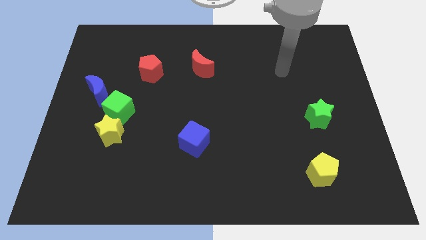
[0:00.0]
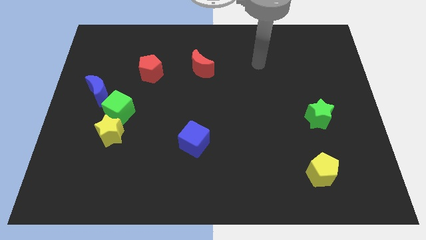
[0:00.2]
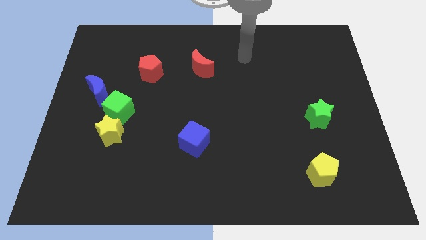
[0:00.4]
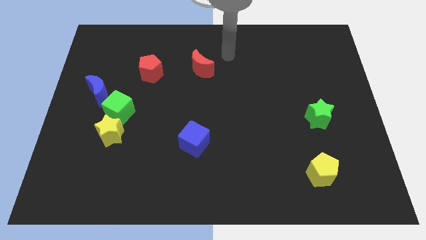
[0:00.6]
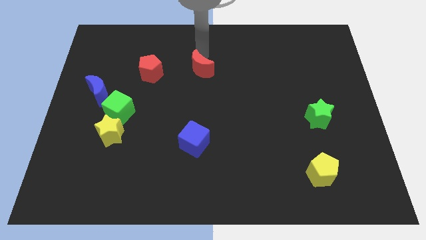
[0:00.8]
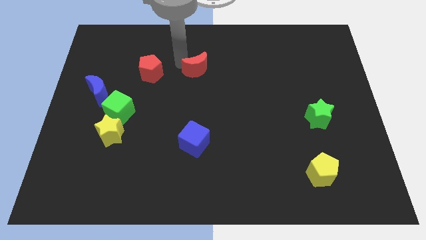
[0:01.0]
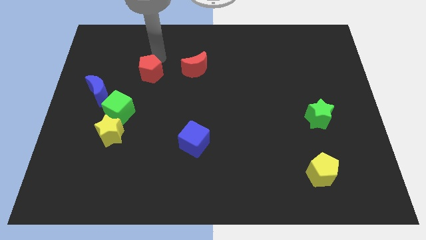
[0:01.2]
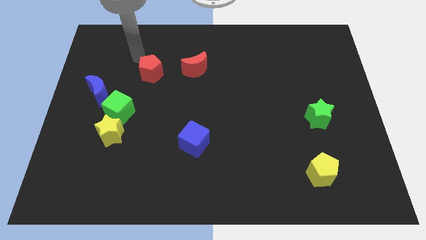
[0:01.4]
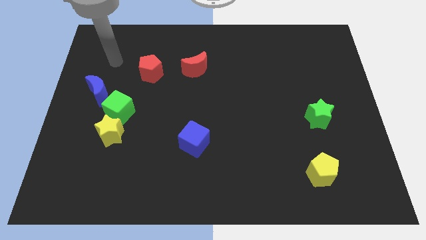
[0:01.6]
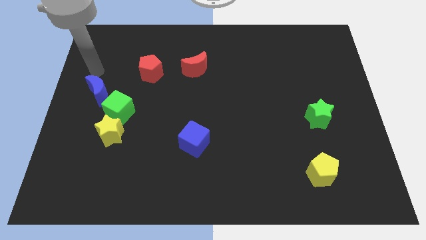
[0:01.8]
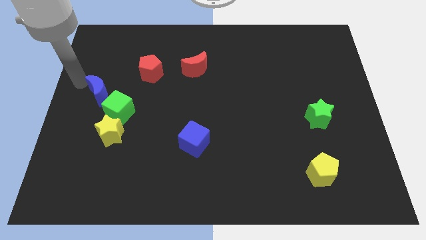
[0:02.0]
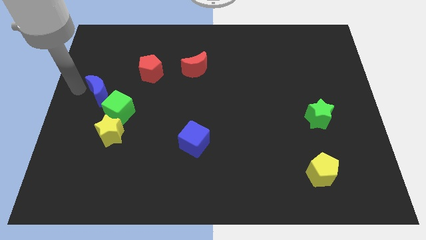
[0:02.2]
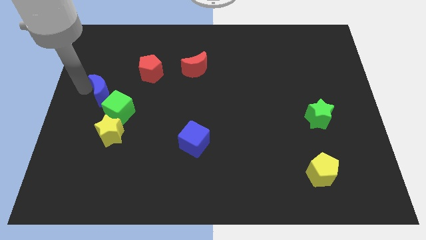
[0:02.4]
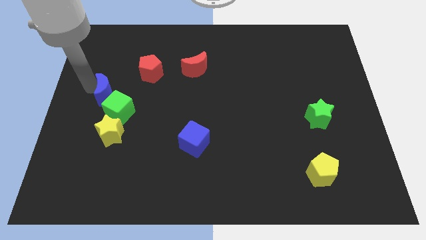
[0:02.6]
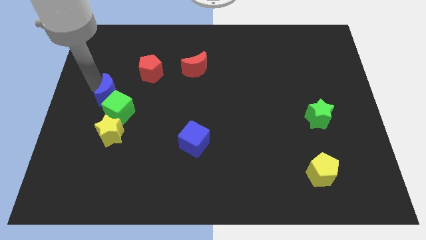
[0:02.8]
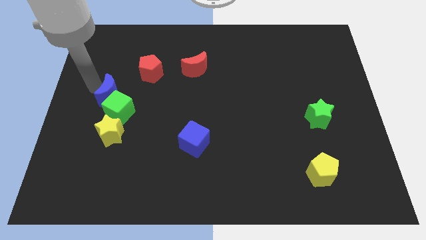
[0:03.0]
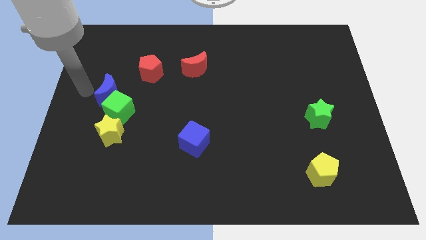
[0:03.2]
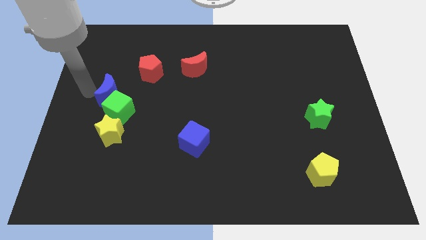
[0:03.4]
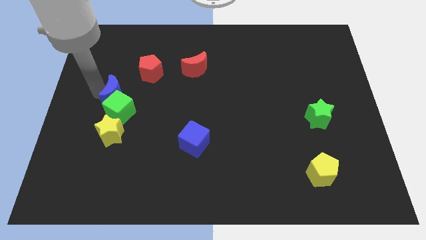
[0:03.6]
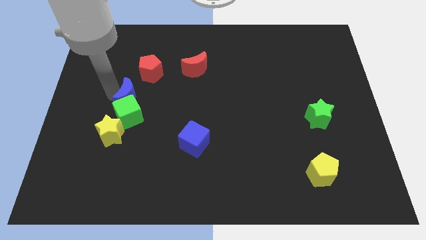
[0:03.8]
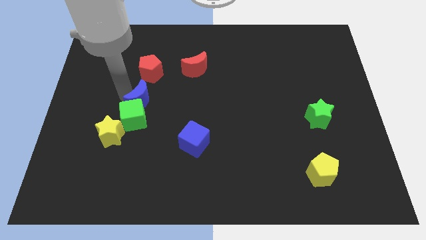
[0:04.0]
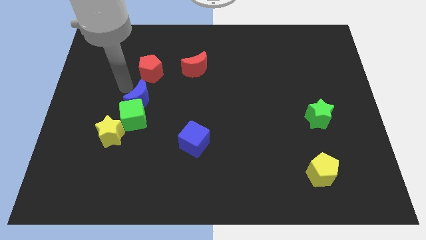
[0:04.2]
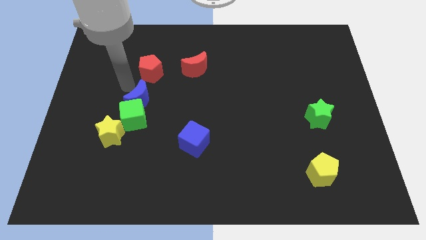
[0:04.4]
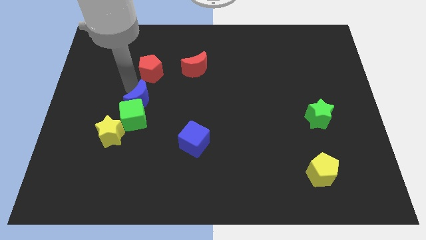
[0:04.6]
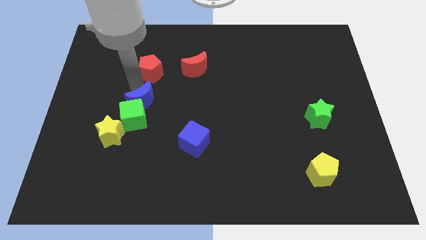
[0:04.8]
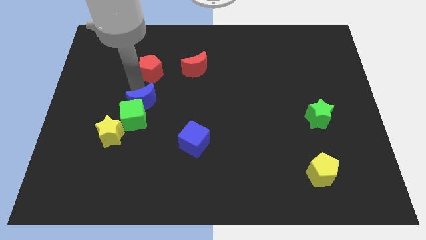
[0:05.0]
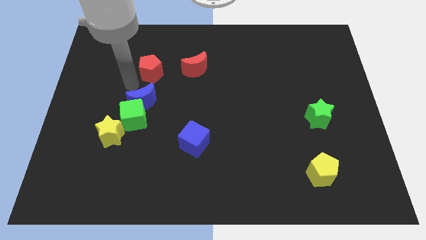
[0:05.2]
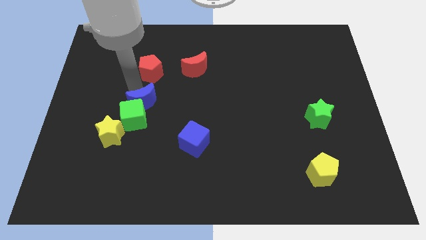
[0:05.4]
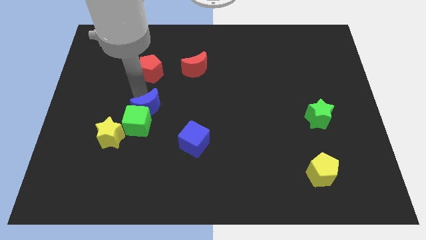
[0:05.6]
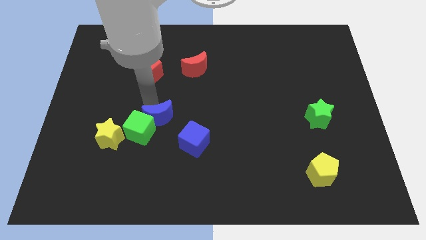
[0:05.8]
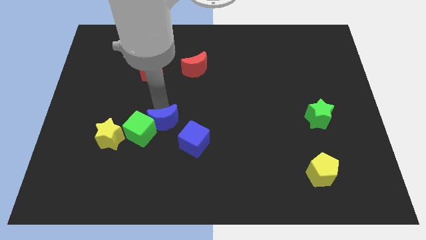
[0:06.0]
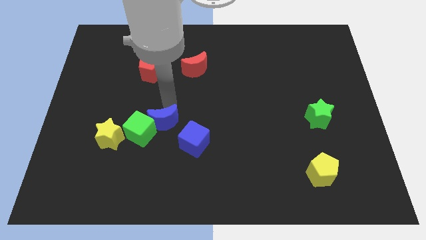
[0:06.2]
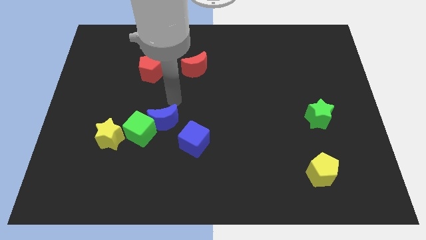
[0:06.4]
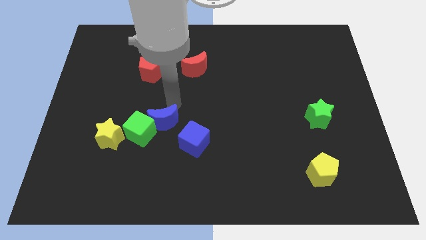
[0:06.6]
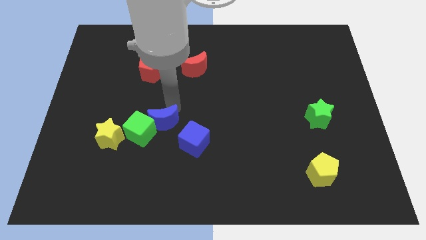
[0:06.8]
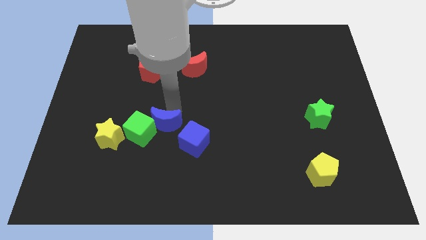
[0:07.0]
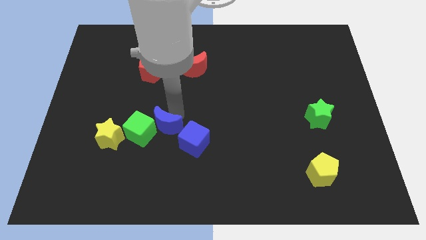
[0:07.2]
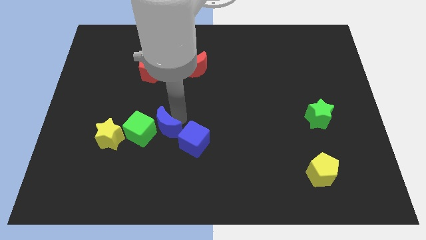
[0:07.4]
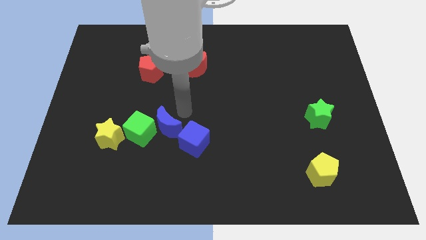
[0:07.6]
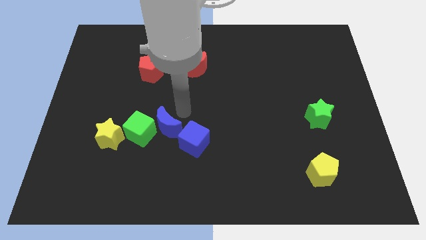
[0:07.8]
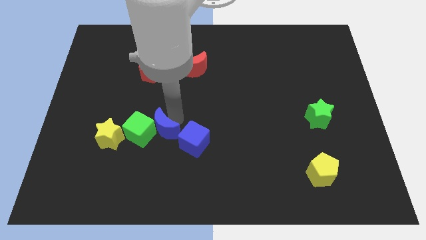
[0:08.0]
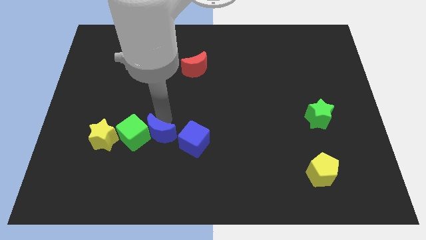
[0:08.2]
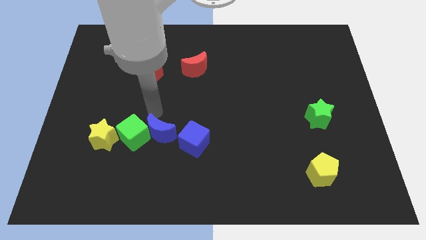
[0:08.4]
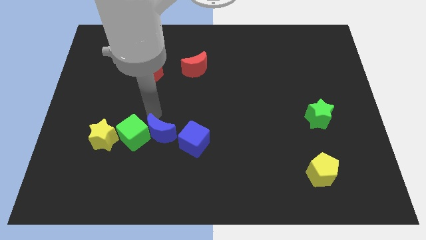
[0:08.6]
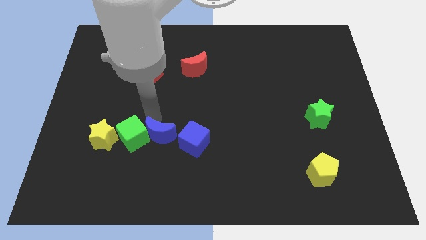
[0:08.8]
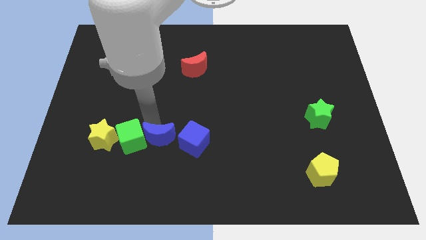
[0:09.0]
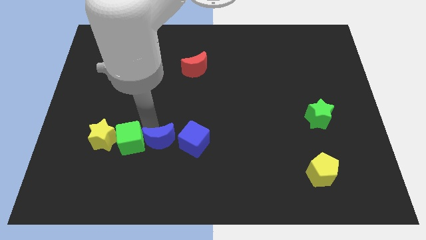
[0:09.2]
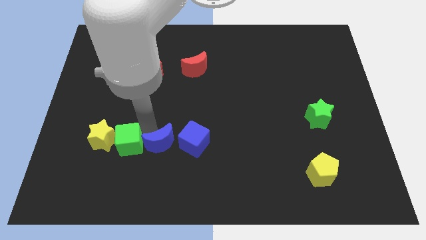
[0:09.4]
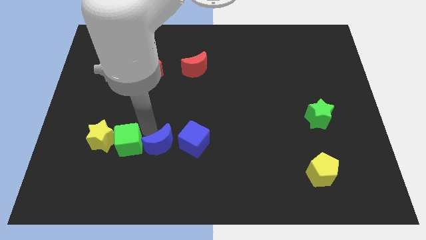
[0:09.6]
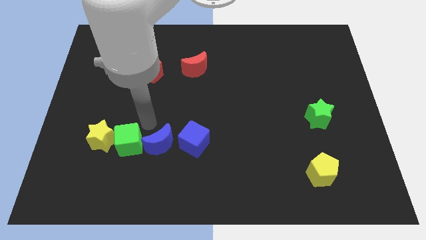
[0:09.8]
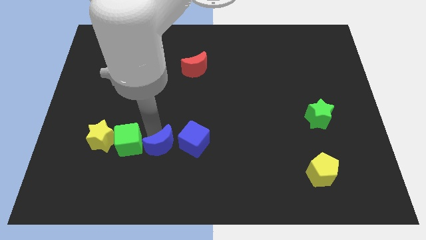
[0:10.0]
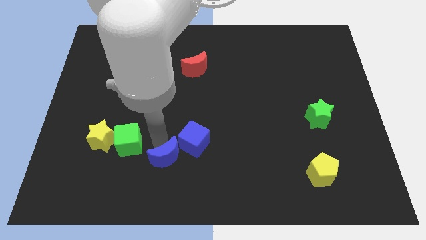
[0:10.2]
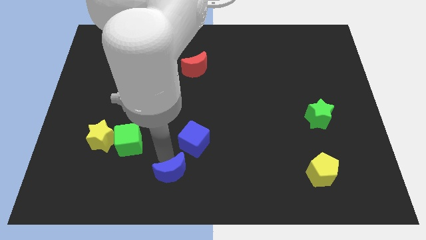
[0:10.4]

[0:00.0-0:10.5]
slide the blue moon to the bottom side

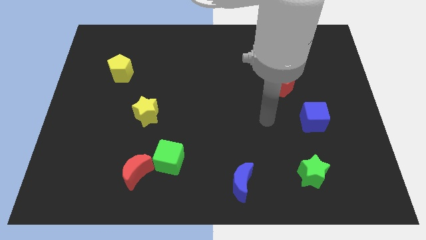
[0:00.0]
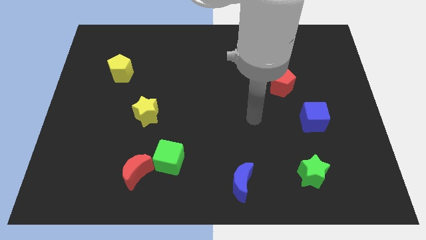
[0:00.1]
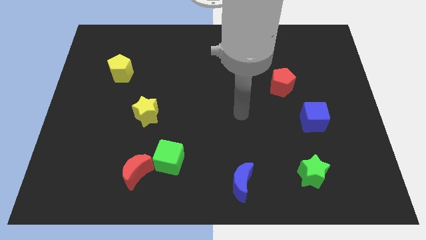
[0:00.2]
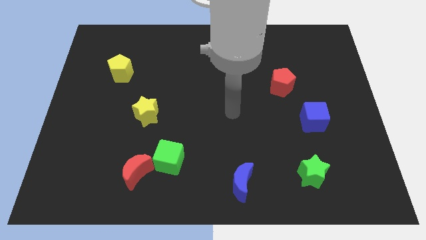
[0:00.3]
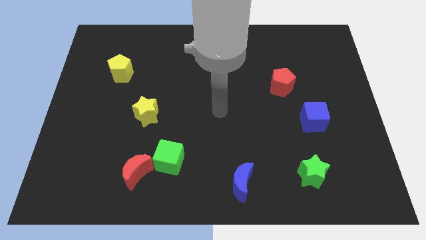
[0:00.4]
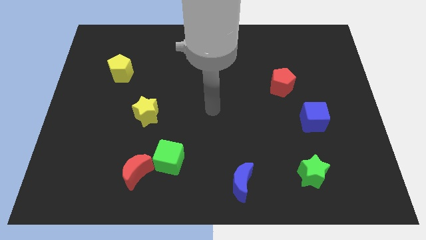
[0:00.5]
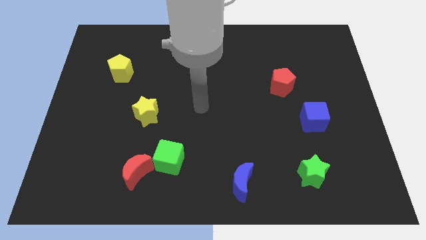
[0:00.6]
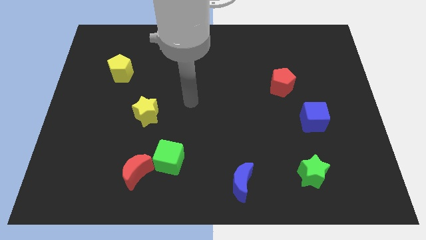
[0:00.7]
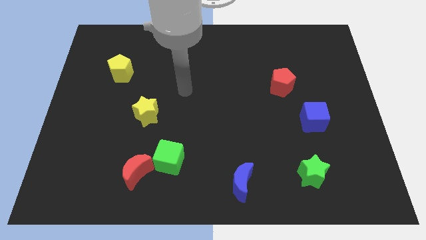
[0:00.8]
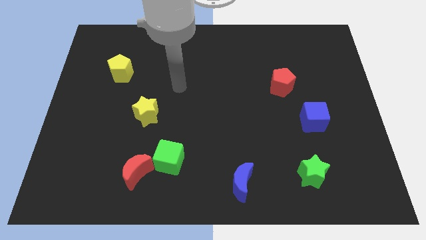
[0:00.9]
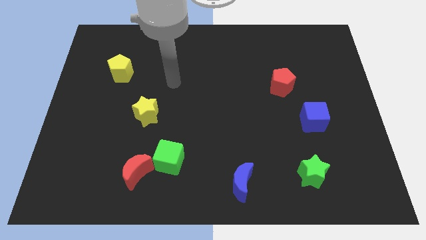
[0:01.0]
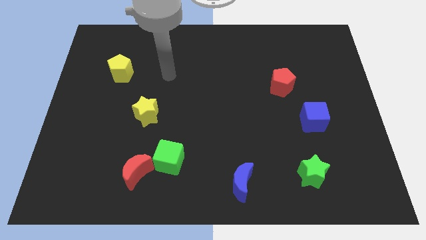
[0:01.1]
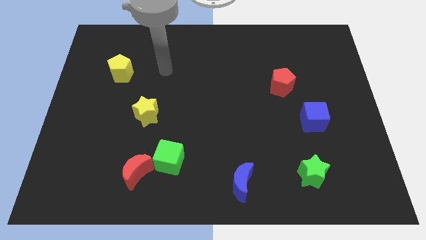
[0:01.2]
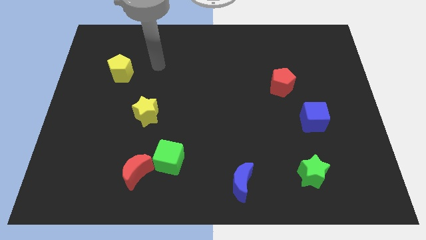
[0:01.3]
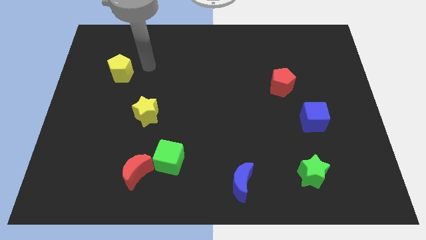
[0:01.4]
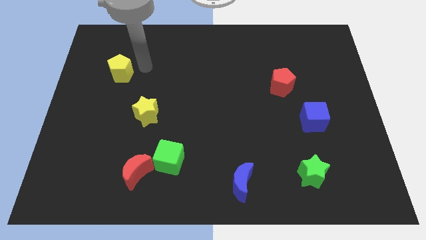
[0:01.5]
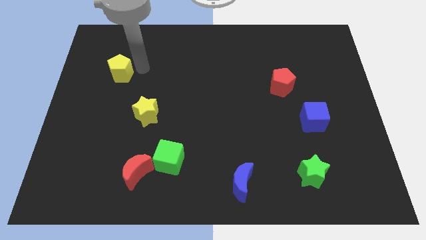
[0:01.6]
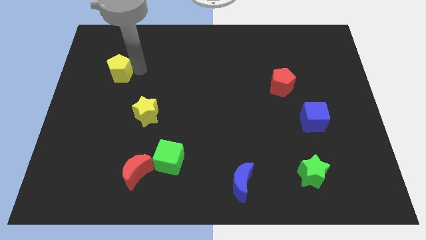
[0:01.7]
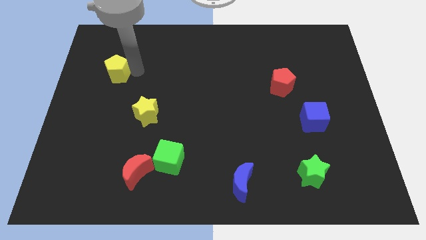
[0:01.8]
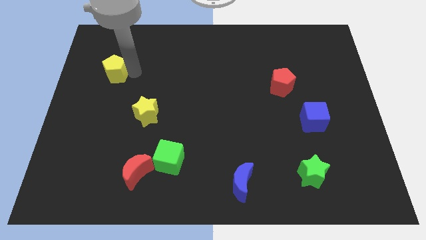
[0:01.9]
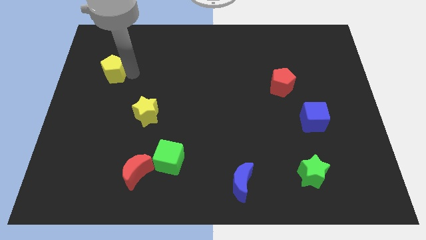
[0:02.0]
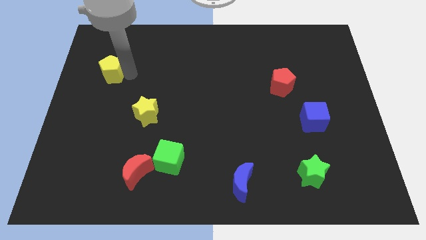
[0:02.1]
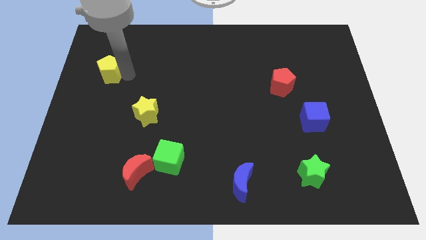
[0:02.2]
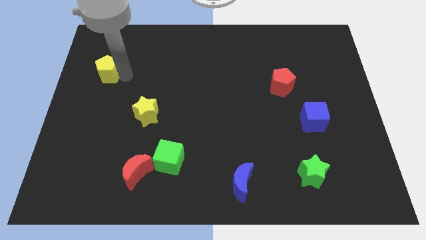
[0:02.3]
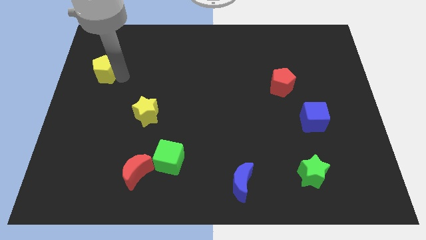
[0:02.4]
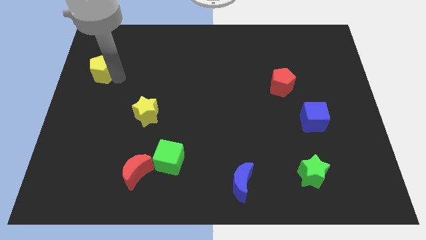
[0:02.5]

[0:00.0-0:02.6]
push the yellow pentagon to the left side
